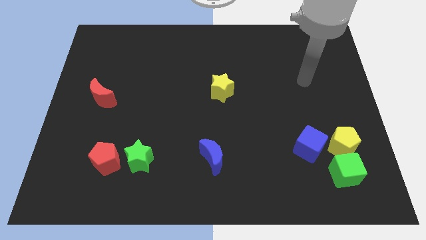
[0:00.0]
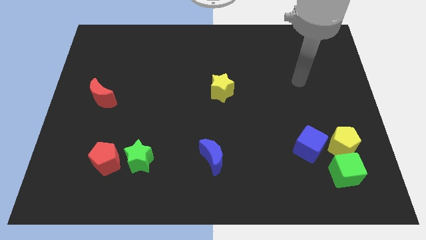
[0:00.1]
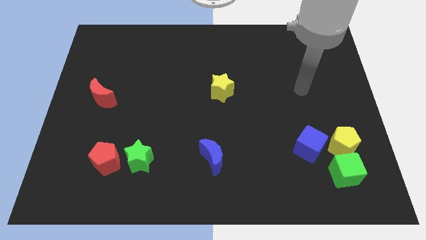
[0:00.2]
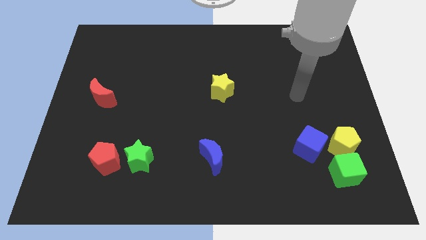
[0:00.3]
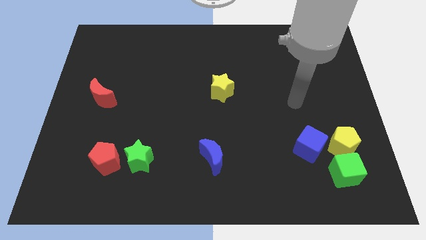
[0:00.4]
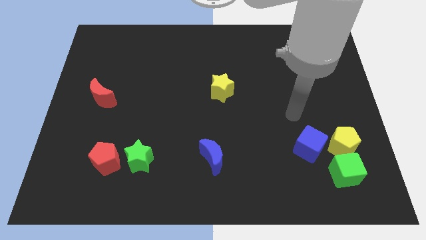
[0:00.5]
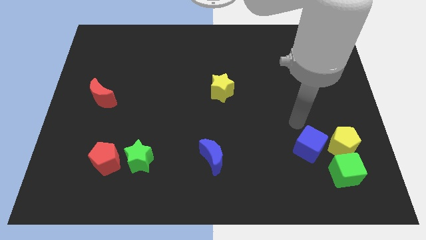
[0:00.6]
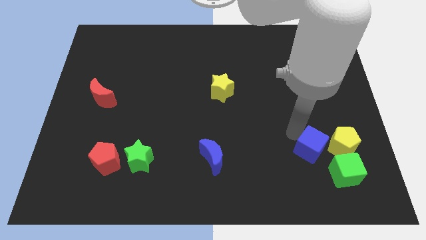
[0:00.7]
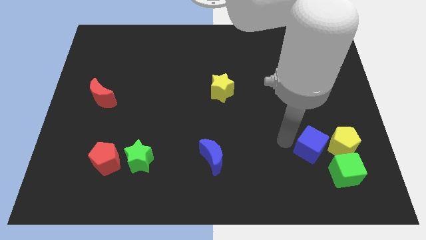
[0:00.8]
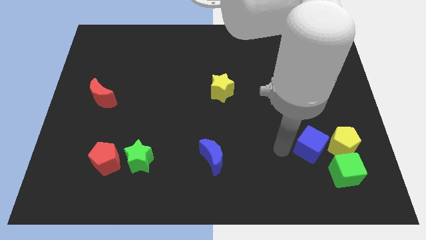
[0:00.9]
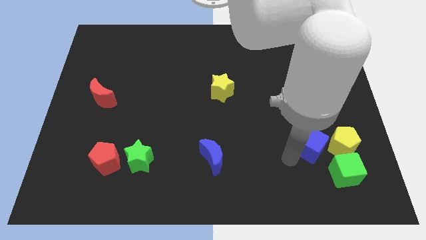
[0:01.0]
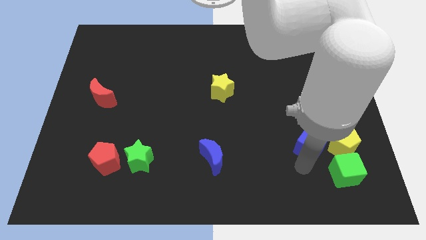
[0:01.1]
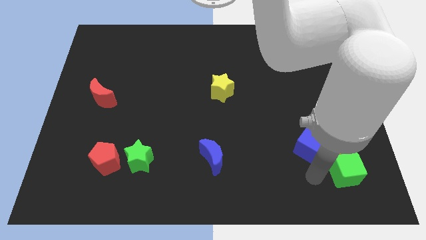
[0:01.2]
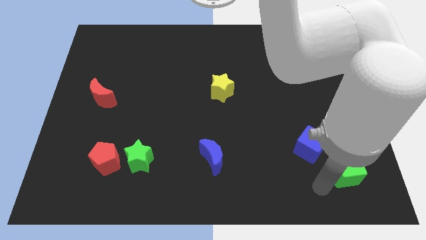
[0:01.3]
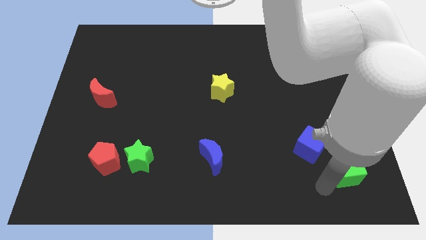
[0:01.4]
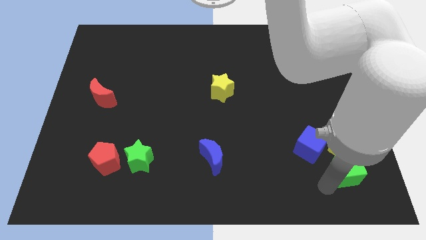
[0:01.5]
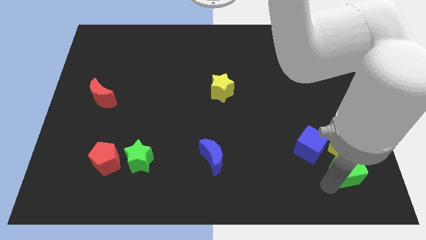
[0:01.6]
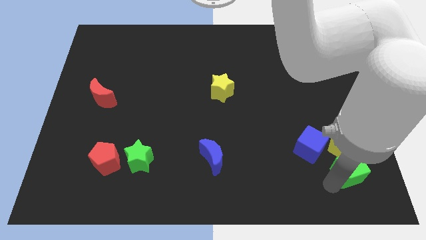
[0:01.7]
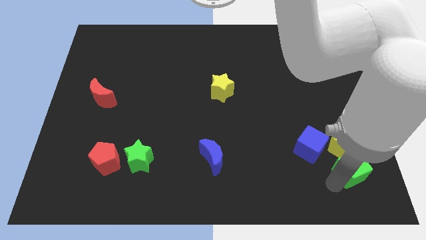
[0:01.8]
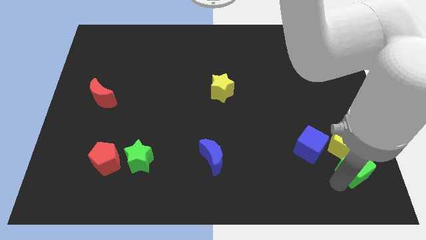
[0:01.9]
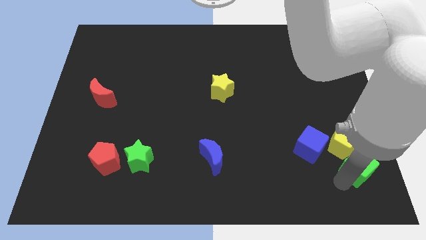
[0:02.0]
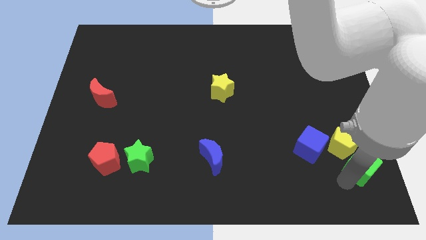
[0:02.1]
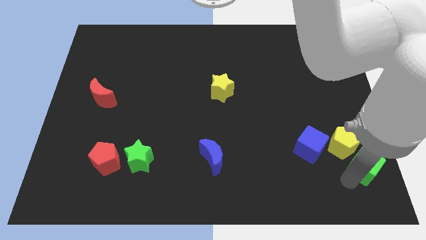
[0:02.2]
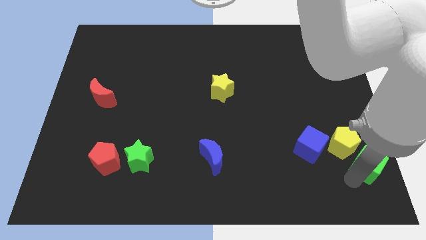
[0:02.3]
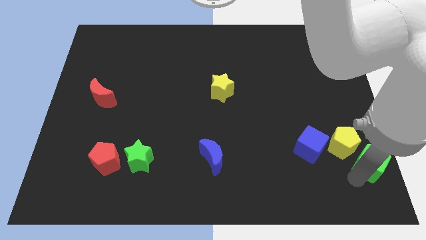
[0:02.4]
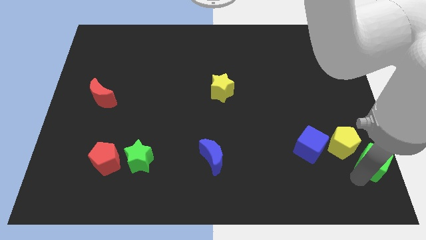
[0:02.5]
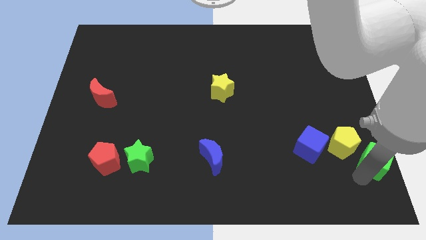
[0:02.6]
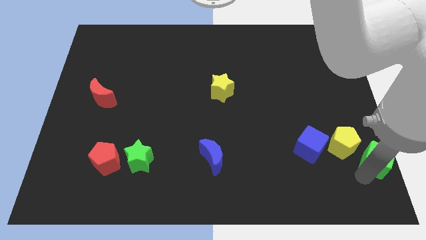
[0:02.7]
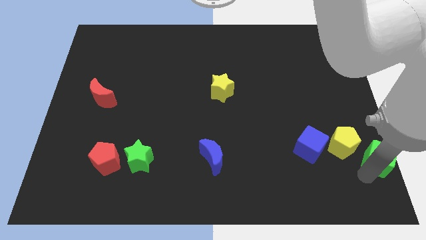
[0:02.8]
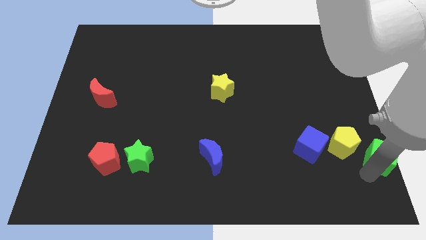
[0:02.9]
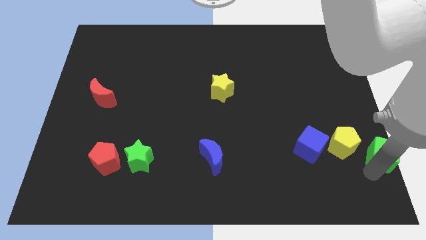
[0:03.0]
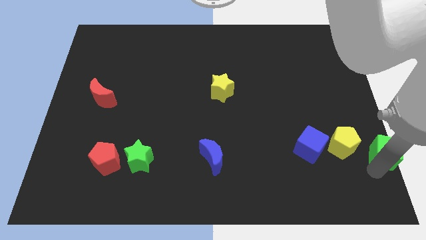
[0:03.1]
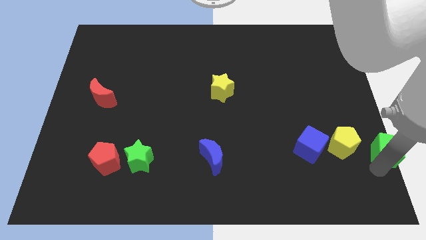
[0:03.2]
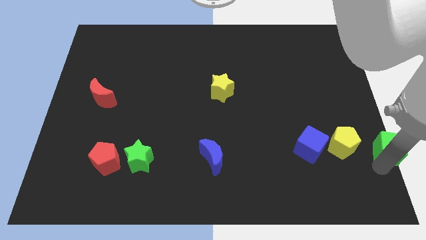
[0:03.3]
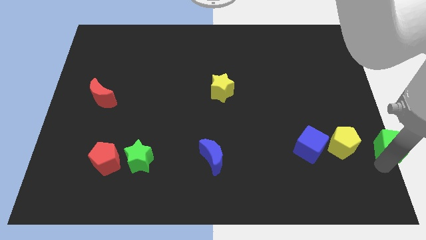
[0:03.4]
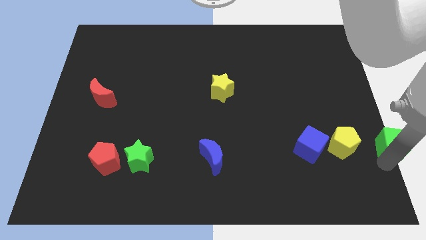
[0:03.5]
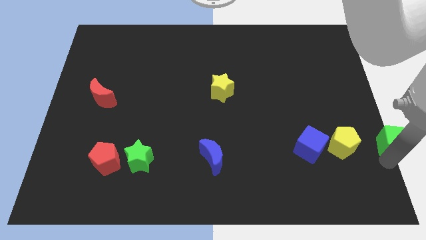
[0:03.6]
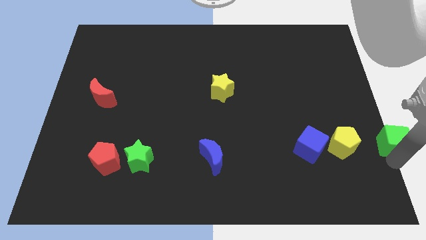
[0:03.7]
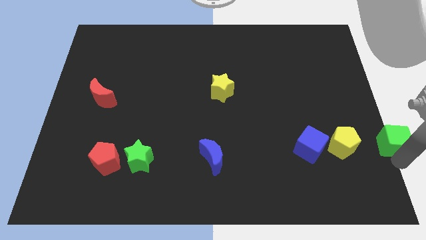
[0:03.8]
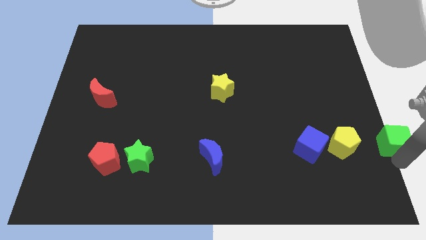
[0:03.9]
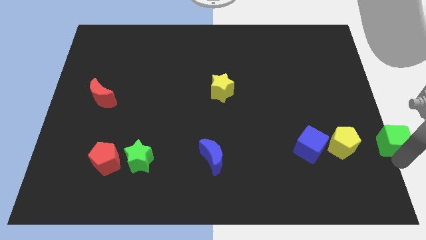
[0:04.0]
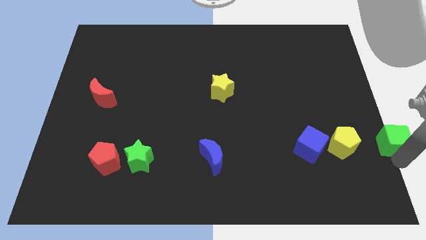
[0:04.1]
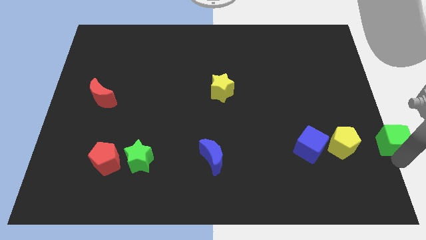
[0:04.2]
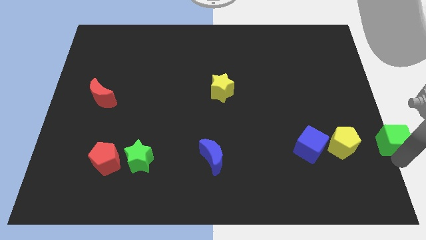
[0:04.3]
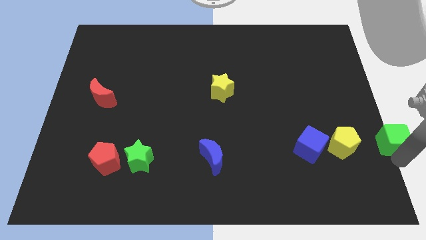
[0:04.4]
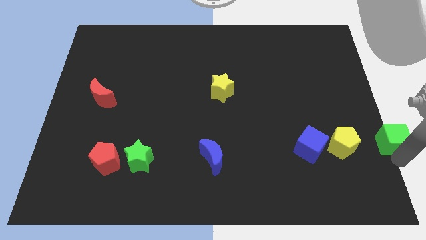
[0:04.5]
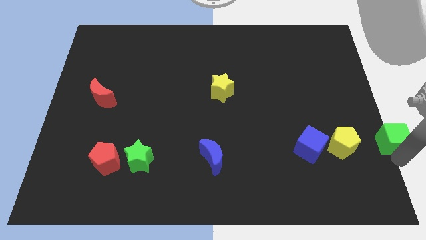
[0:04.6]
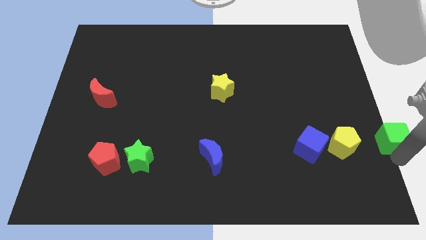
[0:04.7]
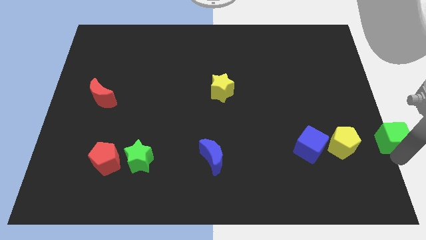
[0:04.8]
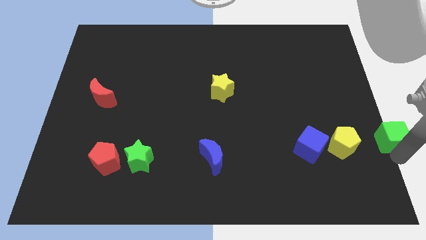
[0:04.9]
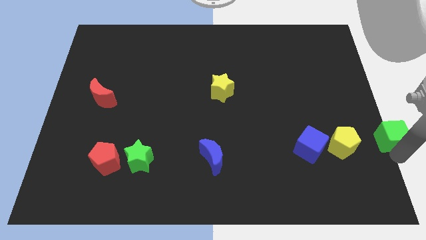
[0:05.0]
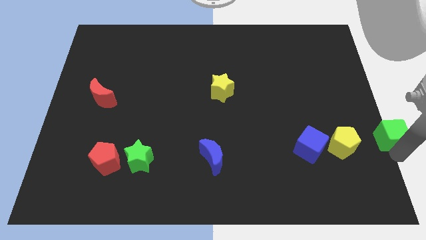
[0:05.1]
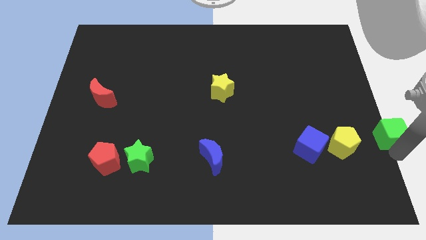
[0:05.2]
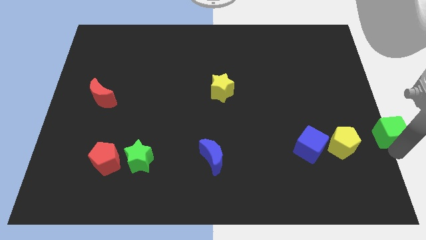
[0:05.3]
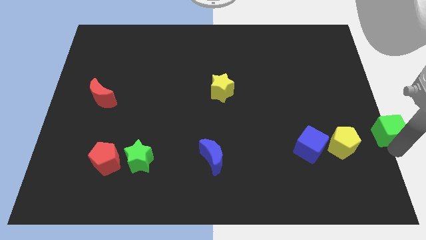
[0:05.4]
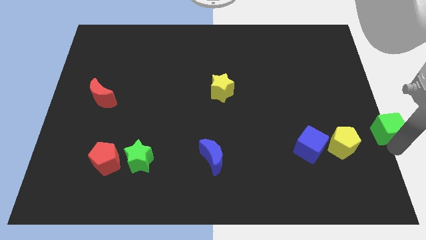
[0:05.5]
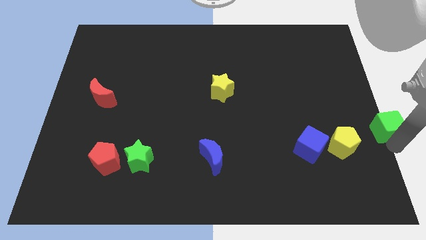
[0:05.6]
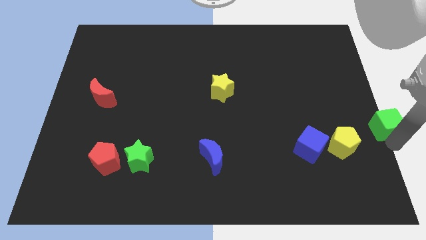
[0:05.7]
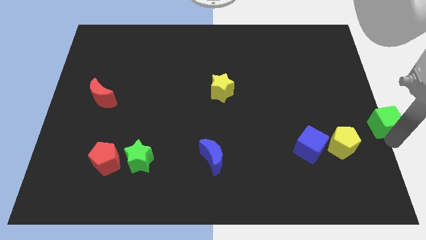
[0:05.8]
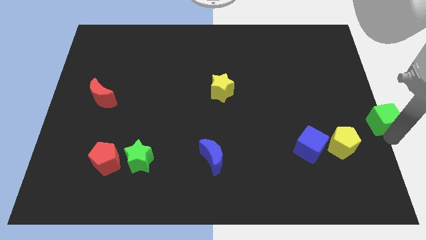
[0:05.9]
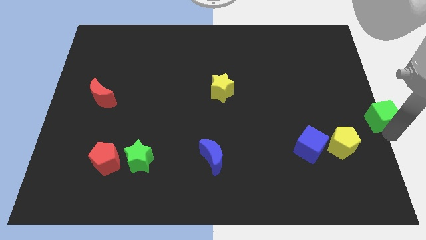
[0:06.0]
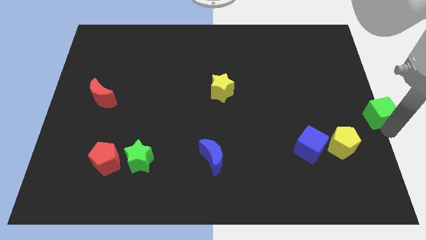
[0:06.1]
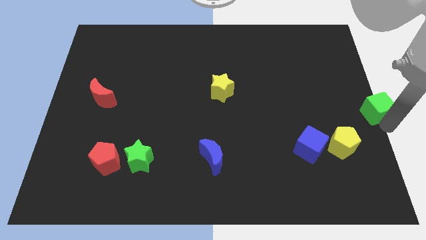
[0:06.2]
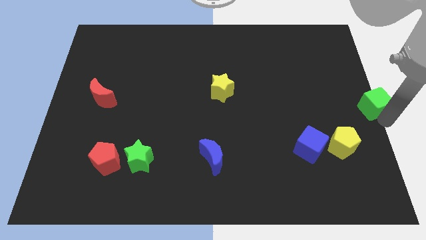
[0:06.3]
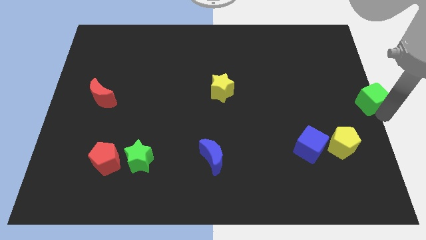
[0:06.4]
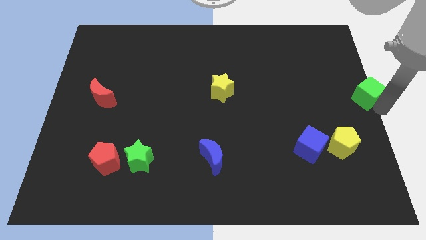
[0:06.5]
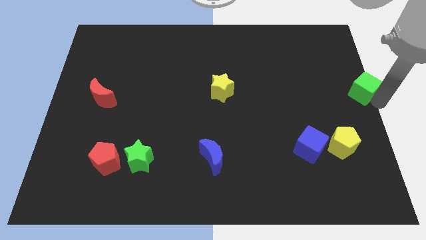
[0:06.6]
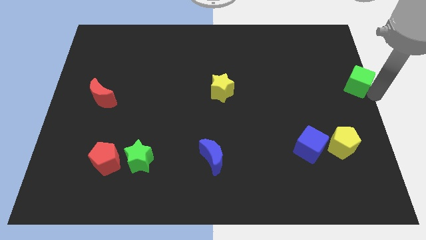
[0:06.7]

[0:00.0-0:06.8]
move the green cube upwards

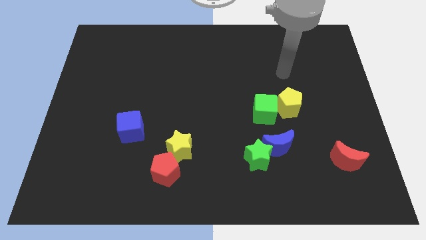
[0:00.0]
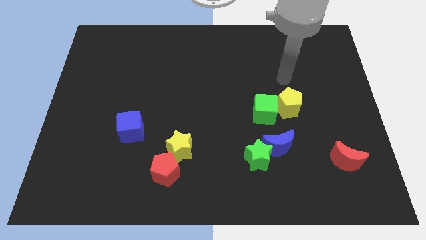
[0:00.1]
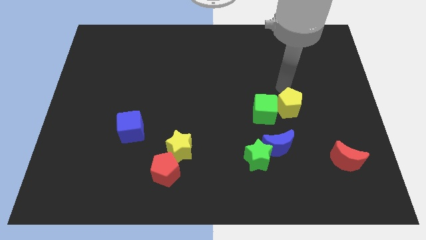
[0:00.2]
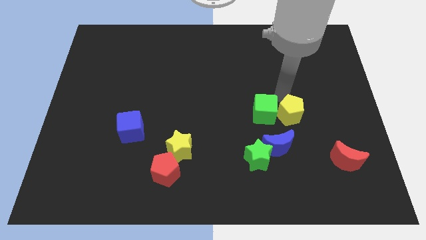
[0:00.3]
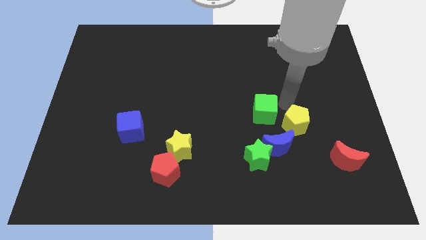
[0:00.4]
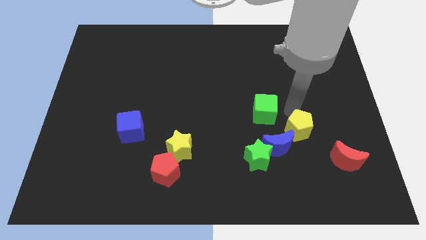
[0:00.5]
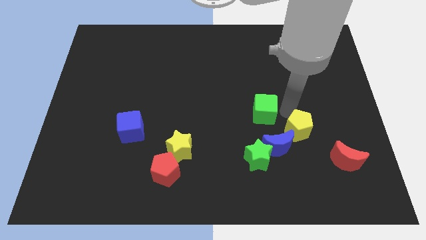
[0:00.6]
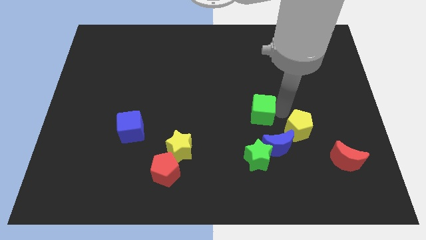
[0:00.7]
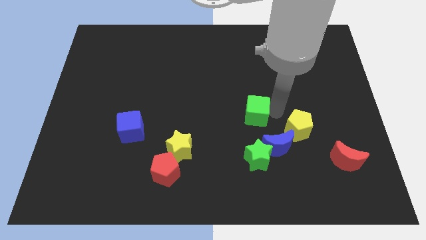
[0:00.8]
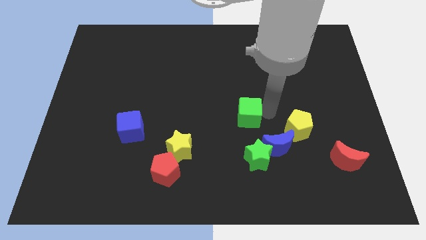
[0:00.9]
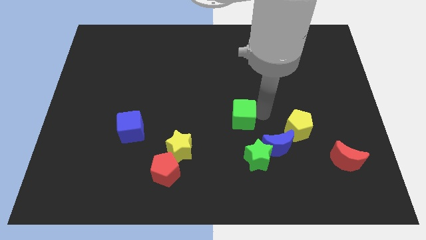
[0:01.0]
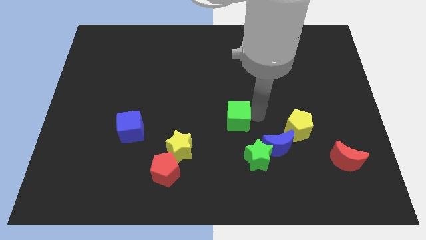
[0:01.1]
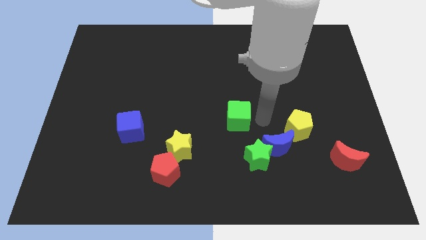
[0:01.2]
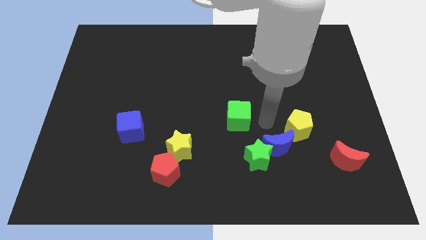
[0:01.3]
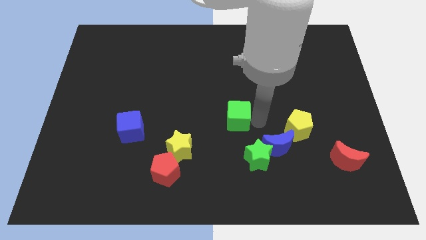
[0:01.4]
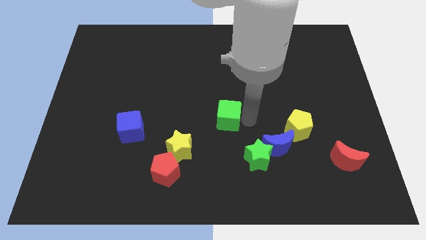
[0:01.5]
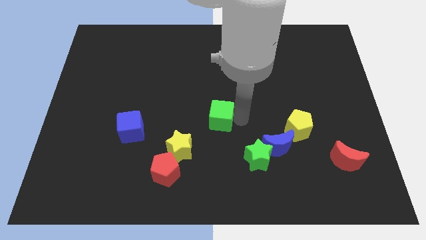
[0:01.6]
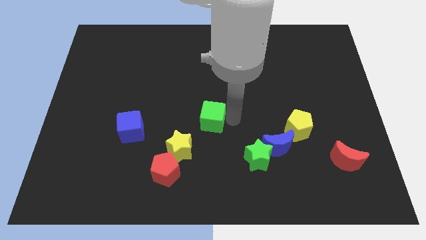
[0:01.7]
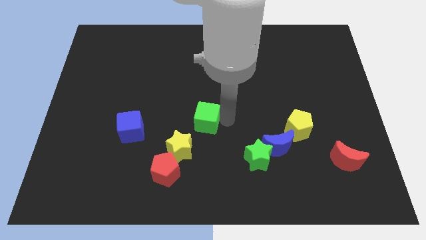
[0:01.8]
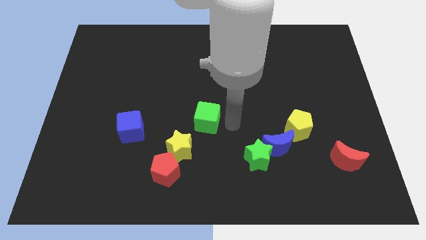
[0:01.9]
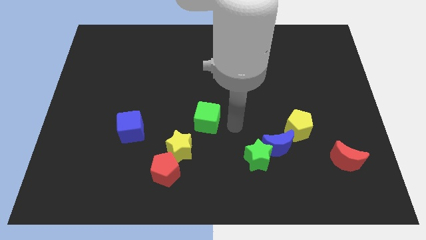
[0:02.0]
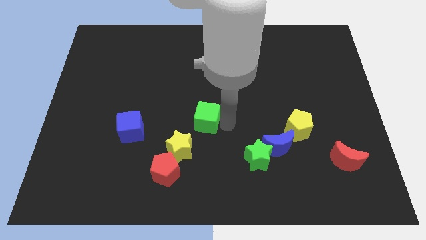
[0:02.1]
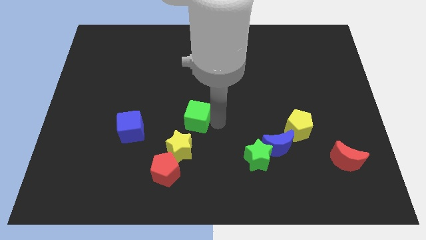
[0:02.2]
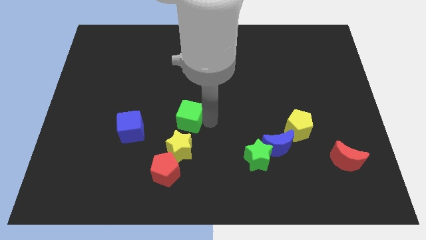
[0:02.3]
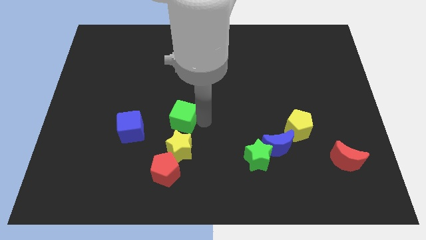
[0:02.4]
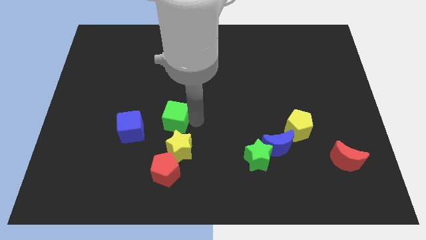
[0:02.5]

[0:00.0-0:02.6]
slide the green cube left
